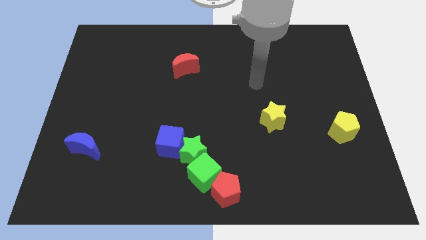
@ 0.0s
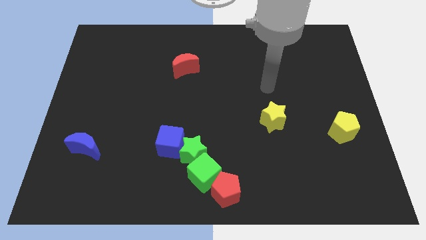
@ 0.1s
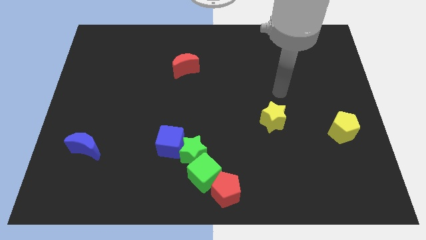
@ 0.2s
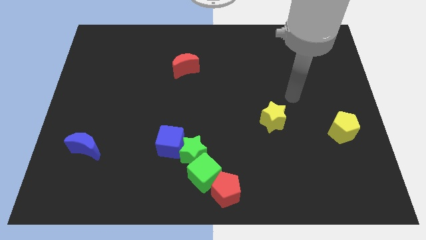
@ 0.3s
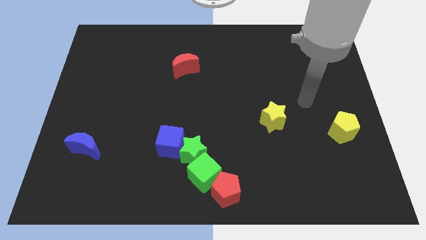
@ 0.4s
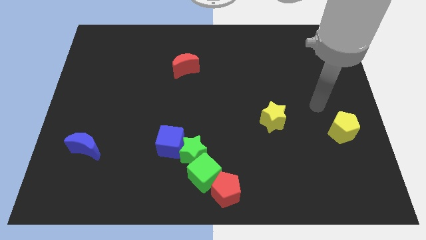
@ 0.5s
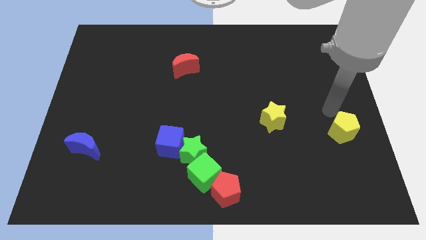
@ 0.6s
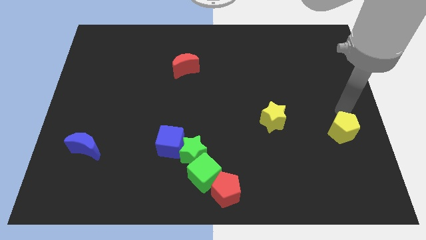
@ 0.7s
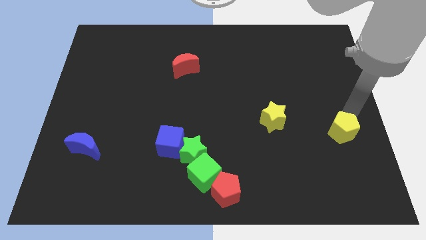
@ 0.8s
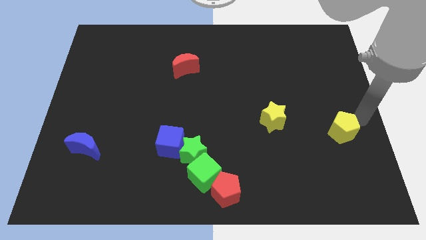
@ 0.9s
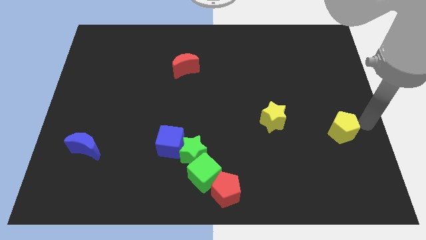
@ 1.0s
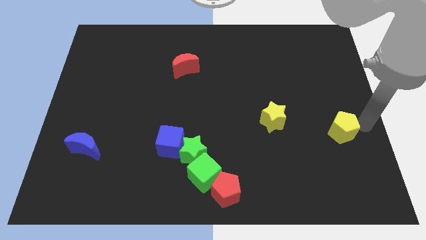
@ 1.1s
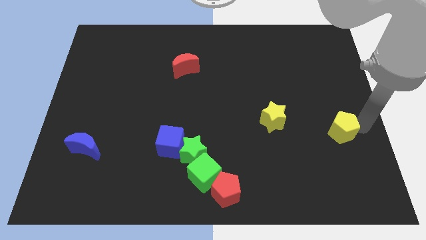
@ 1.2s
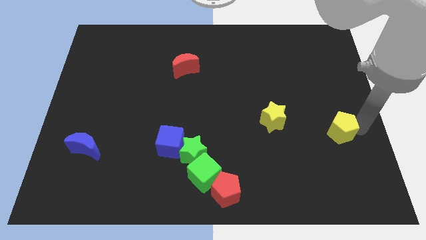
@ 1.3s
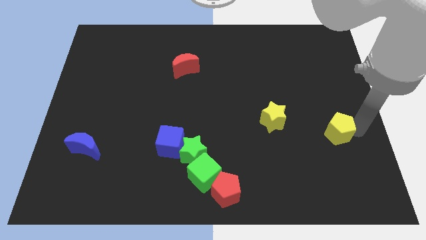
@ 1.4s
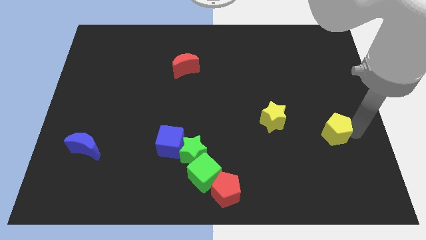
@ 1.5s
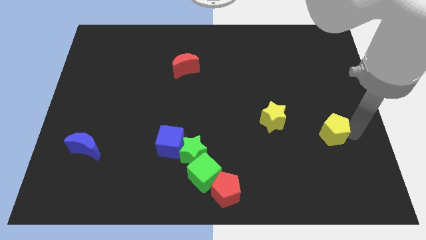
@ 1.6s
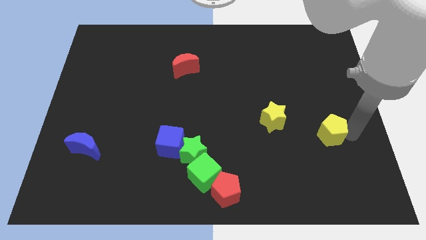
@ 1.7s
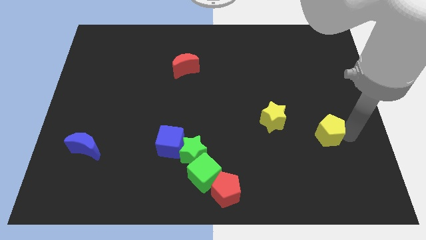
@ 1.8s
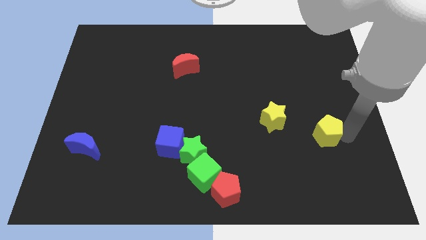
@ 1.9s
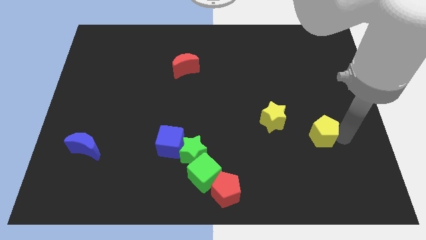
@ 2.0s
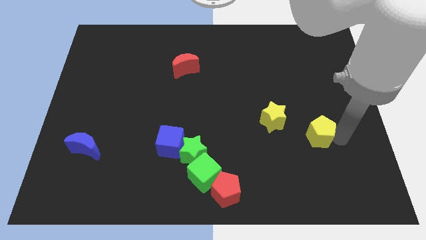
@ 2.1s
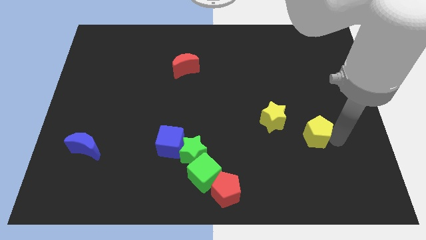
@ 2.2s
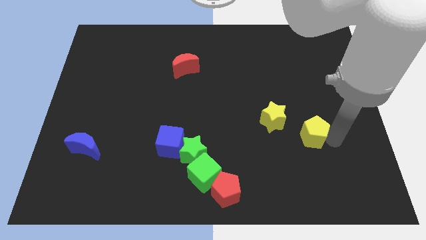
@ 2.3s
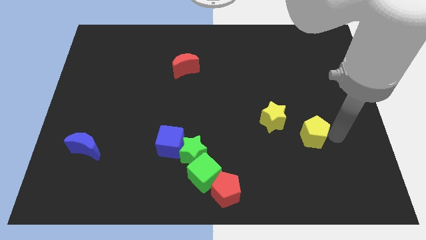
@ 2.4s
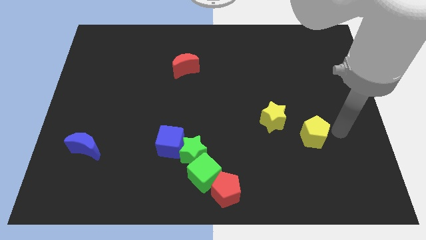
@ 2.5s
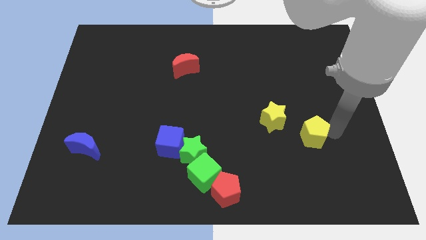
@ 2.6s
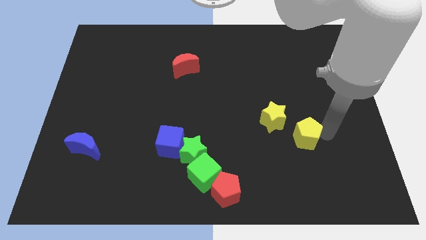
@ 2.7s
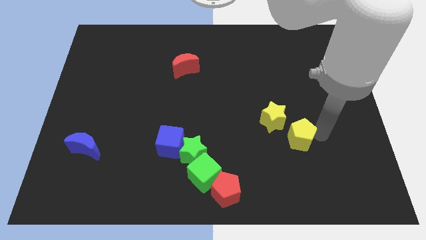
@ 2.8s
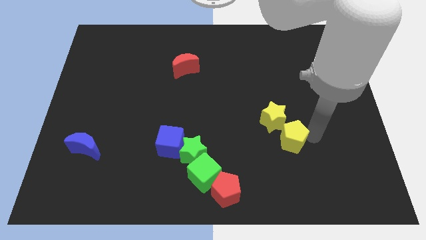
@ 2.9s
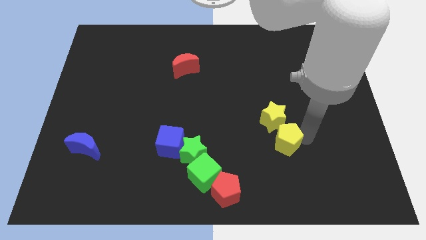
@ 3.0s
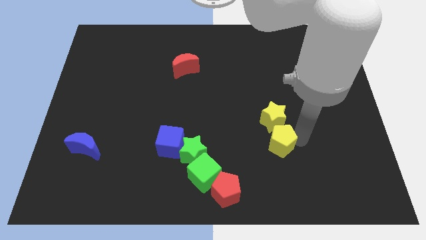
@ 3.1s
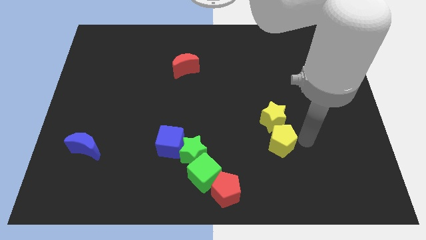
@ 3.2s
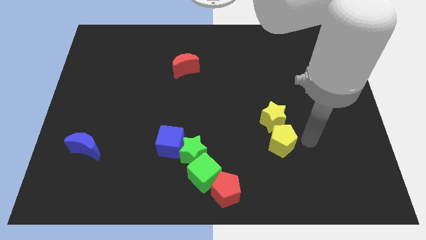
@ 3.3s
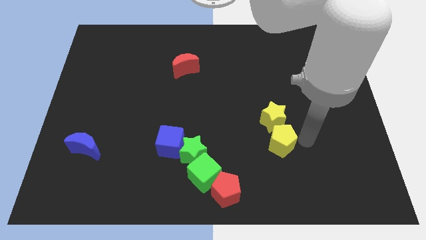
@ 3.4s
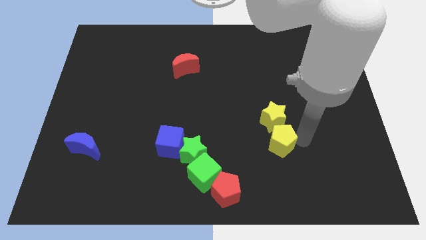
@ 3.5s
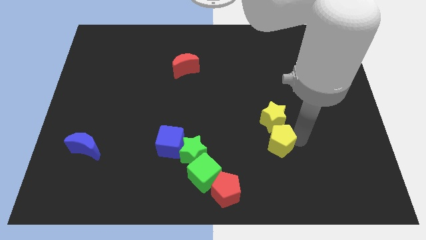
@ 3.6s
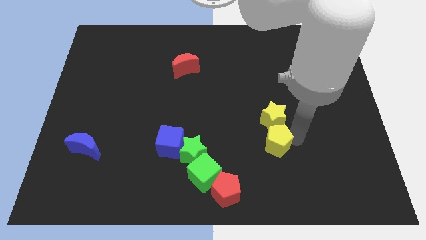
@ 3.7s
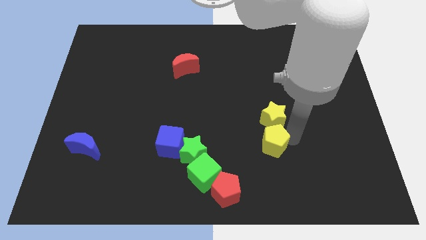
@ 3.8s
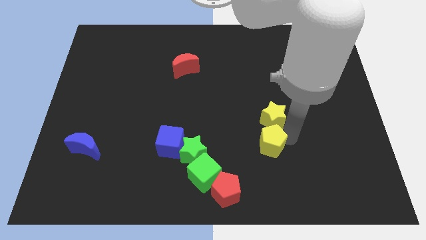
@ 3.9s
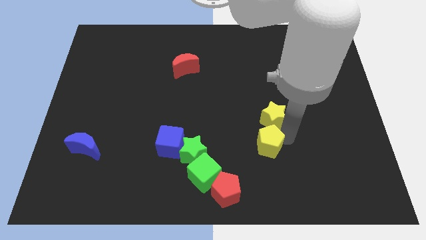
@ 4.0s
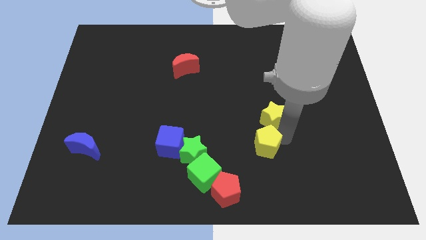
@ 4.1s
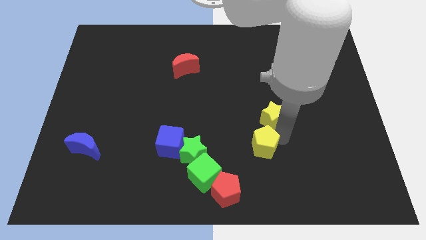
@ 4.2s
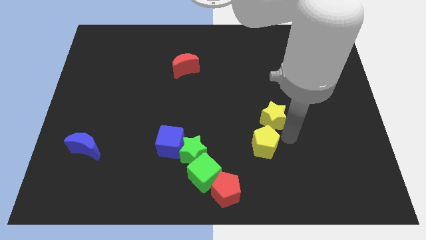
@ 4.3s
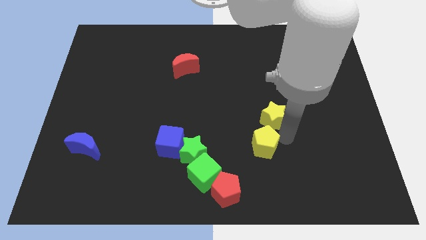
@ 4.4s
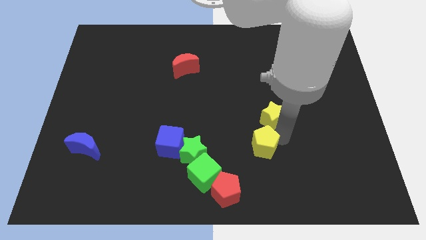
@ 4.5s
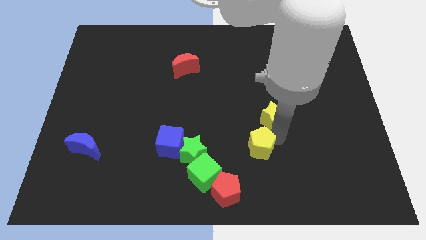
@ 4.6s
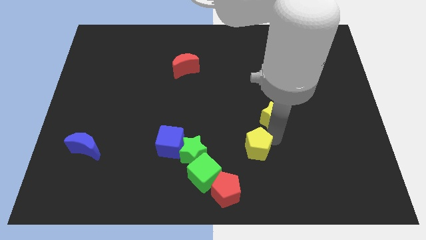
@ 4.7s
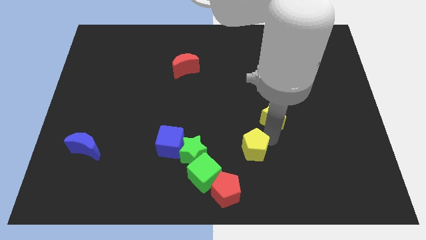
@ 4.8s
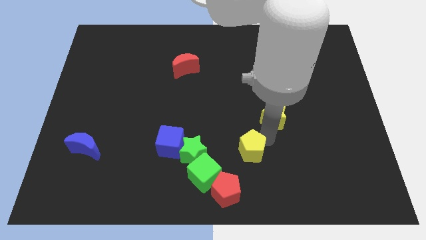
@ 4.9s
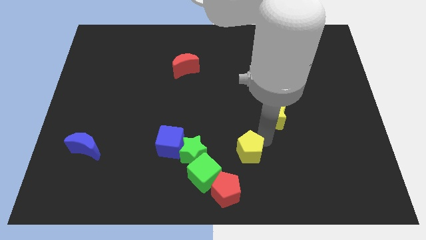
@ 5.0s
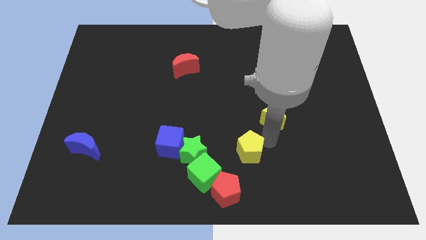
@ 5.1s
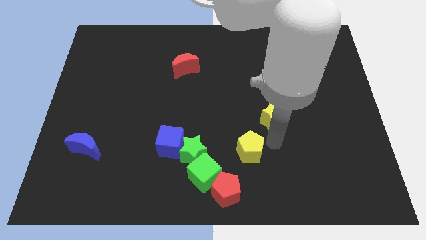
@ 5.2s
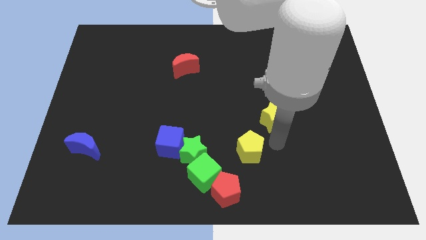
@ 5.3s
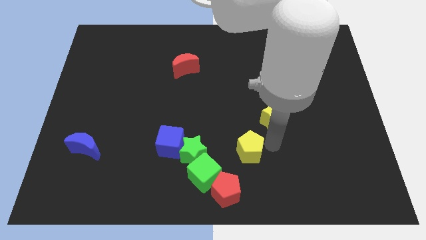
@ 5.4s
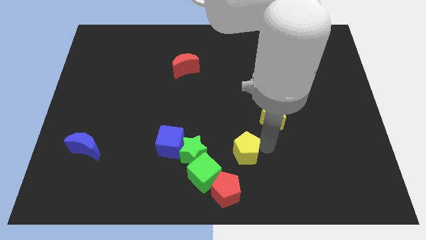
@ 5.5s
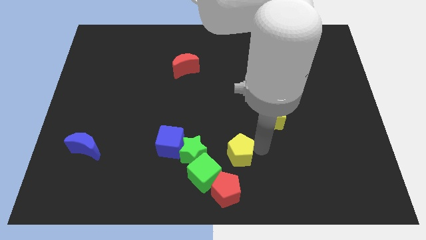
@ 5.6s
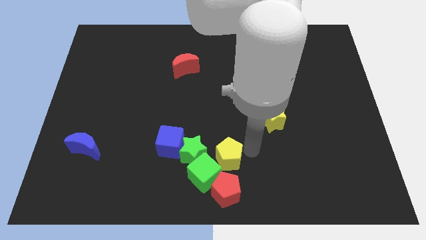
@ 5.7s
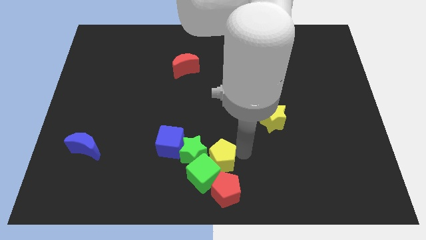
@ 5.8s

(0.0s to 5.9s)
slide the yellow pentagon towards the green cube

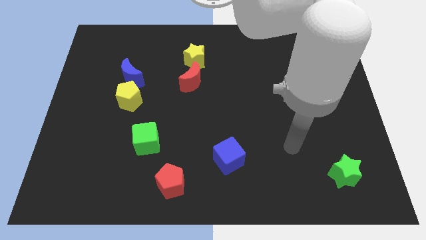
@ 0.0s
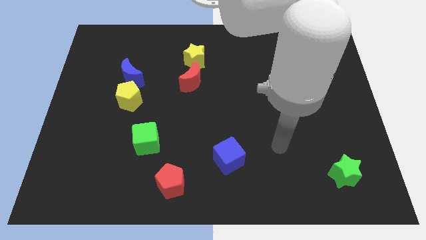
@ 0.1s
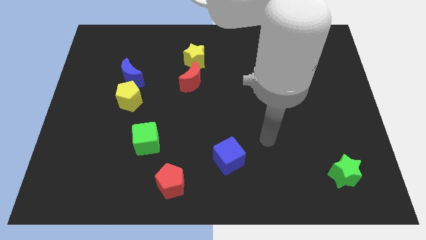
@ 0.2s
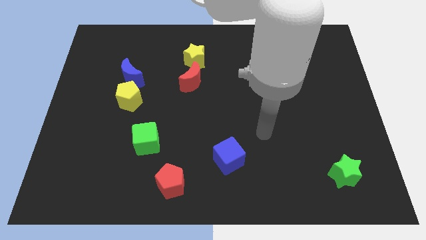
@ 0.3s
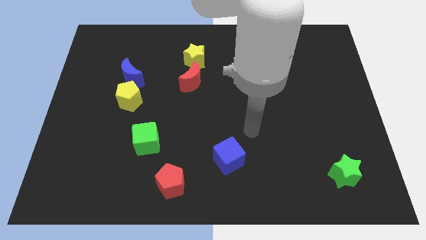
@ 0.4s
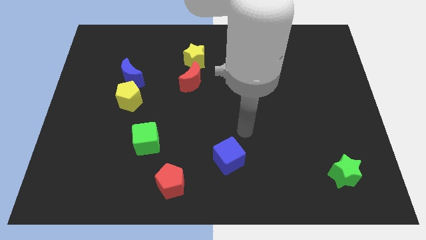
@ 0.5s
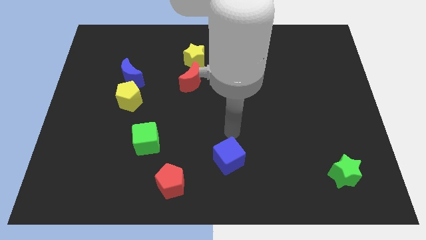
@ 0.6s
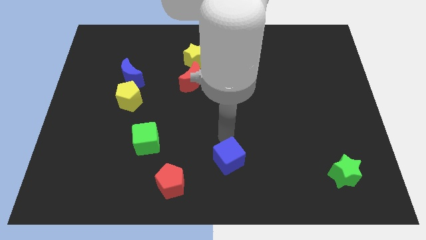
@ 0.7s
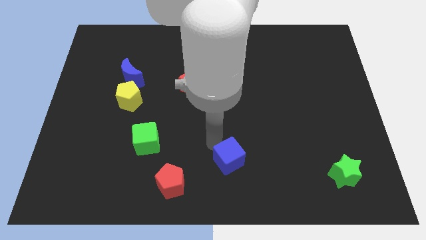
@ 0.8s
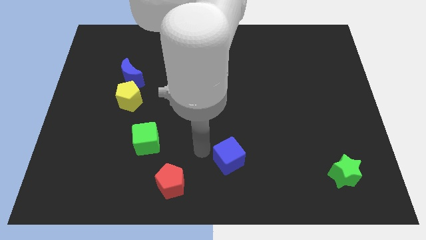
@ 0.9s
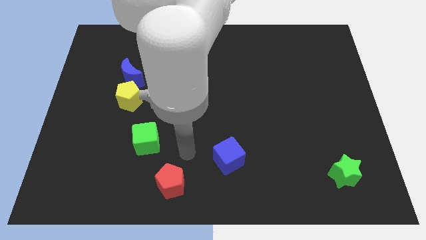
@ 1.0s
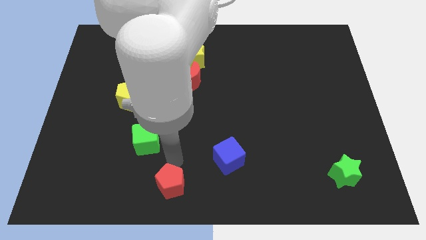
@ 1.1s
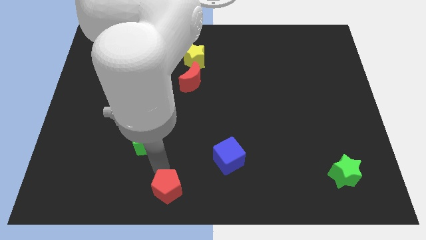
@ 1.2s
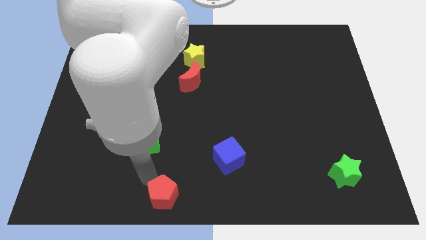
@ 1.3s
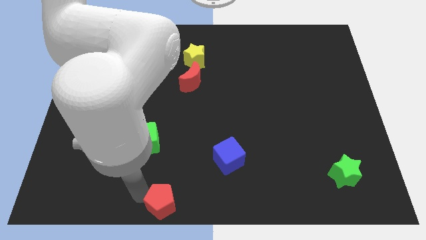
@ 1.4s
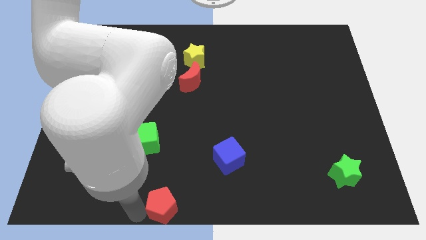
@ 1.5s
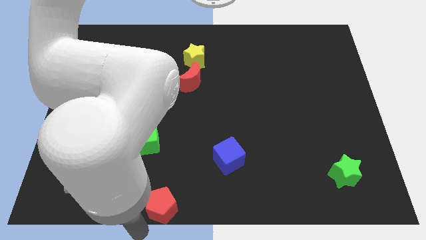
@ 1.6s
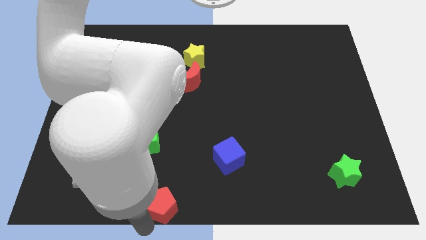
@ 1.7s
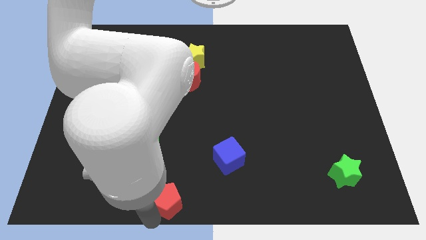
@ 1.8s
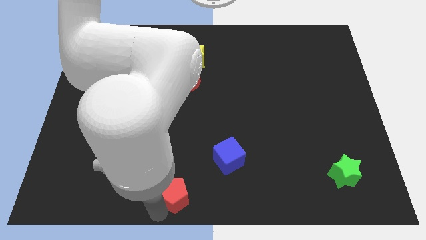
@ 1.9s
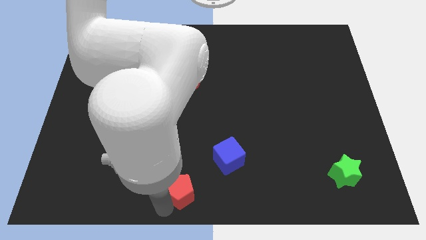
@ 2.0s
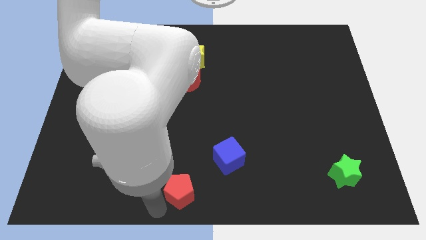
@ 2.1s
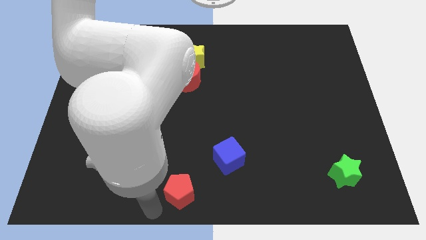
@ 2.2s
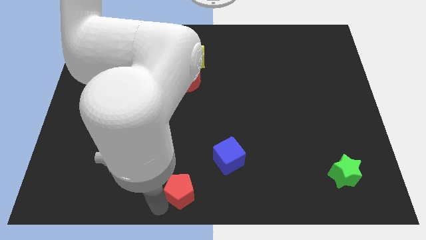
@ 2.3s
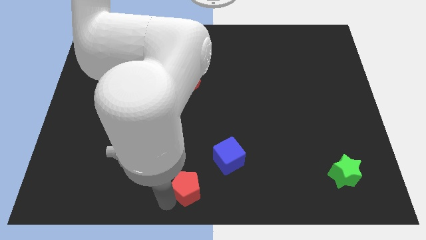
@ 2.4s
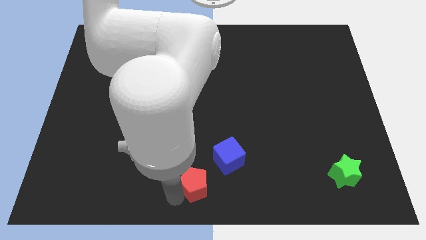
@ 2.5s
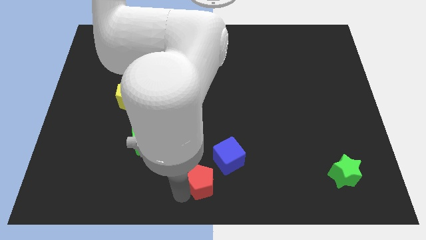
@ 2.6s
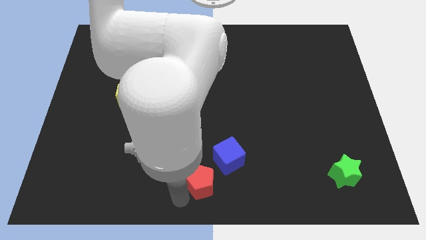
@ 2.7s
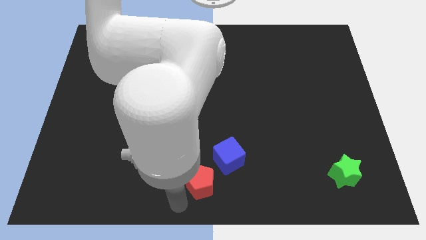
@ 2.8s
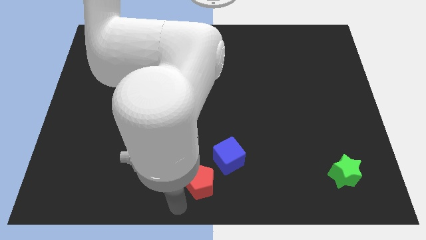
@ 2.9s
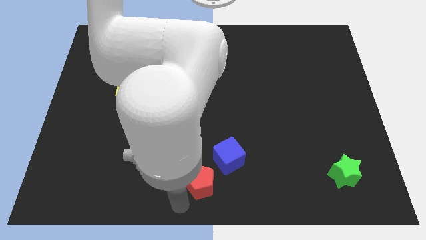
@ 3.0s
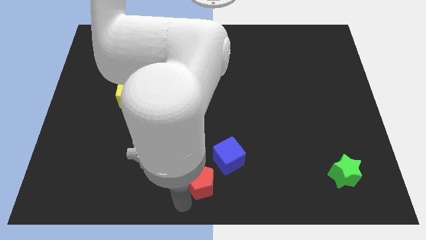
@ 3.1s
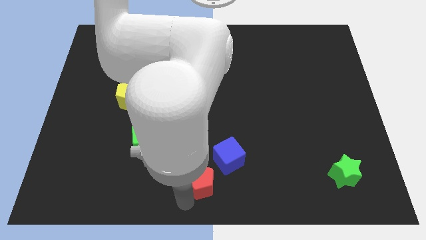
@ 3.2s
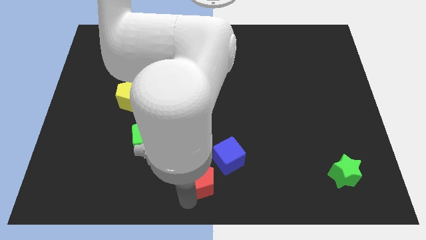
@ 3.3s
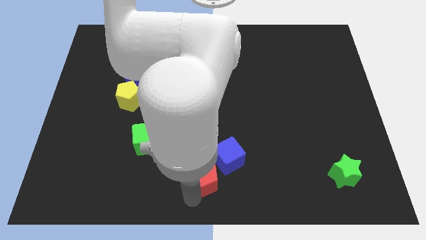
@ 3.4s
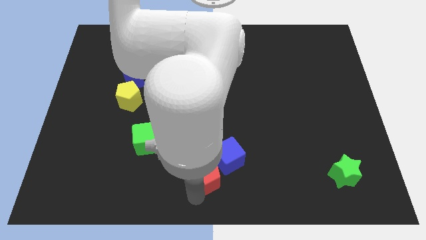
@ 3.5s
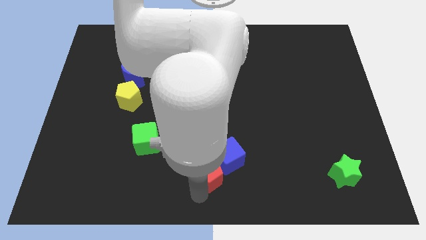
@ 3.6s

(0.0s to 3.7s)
move the red pentagon next to the blue cube
